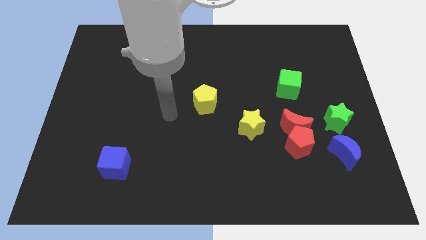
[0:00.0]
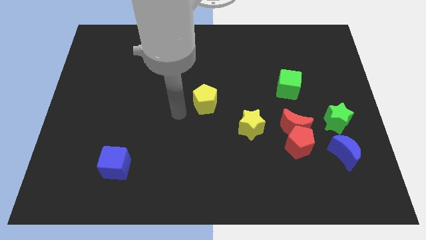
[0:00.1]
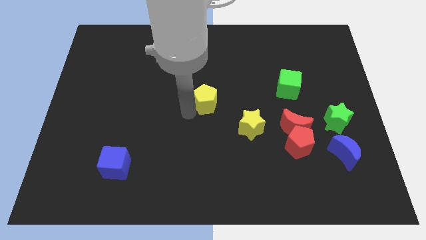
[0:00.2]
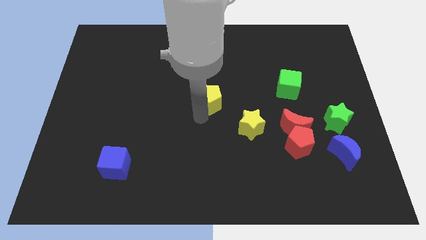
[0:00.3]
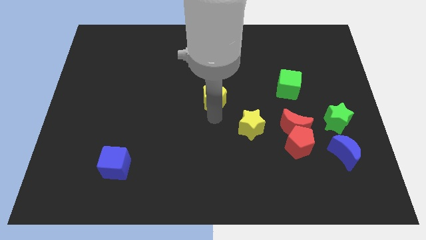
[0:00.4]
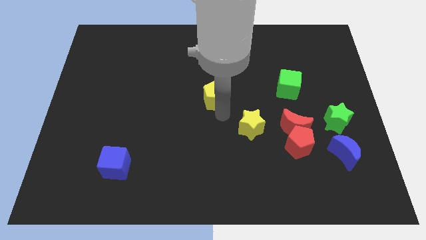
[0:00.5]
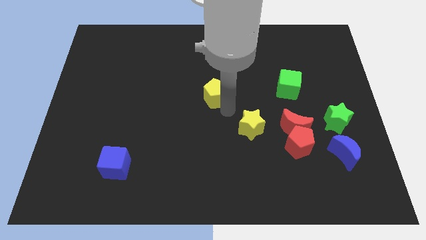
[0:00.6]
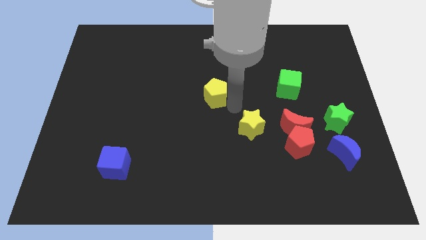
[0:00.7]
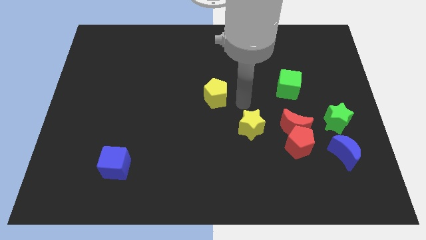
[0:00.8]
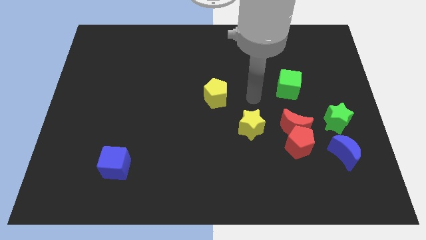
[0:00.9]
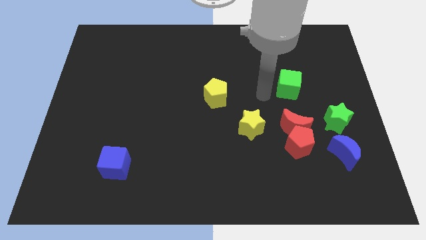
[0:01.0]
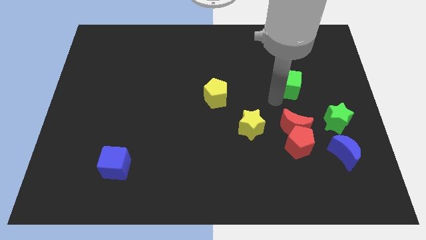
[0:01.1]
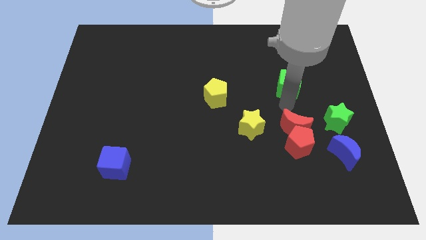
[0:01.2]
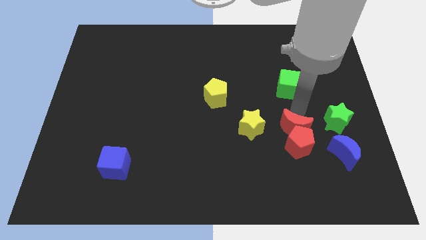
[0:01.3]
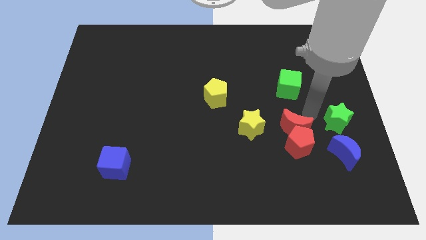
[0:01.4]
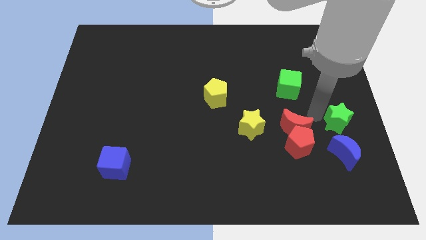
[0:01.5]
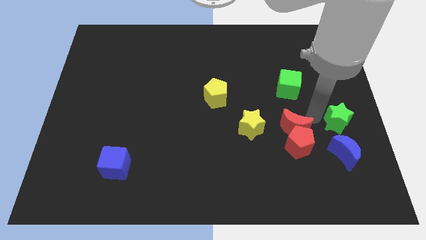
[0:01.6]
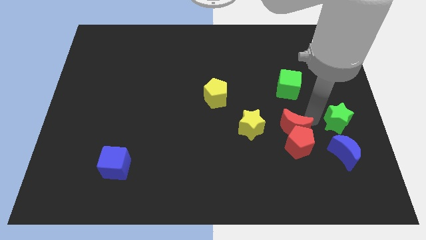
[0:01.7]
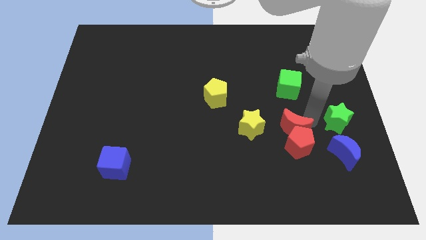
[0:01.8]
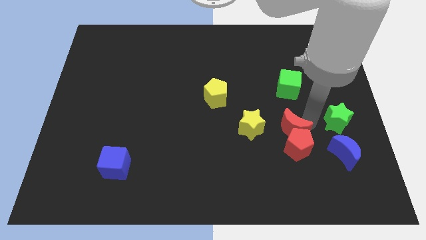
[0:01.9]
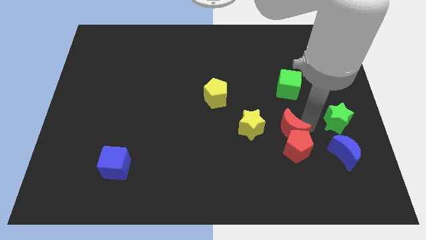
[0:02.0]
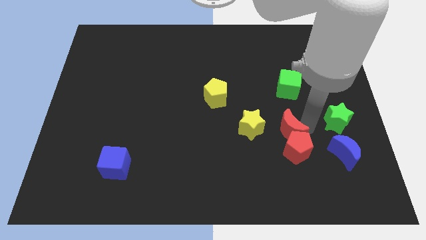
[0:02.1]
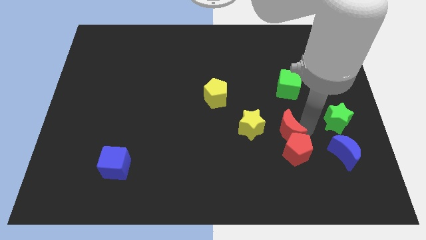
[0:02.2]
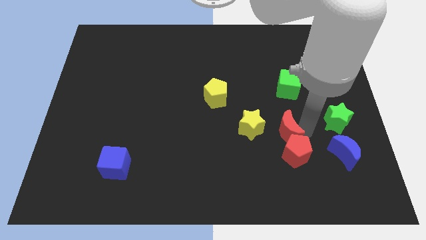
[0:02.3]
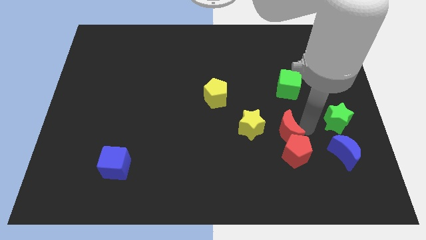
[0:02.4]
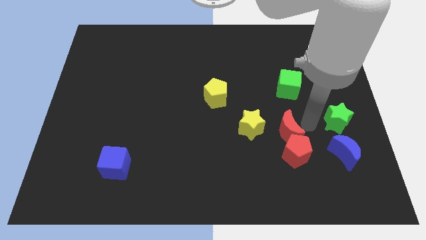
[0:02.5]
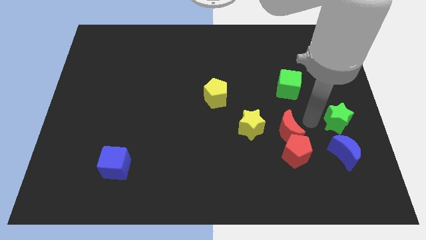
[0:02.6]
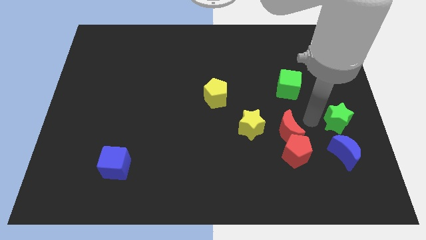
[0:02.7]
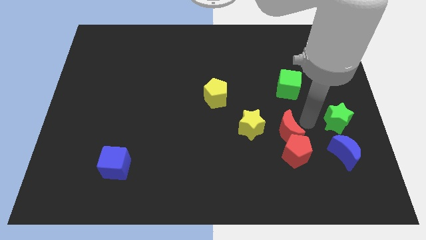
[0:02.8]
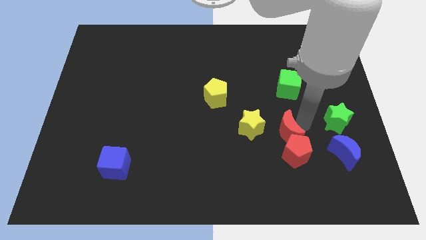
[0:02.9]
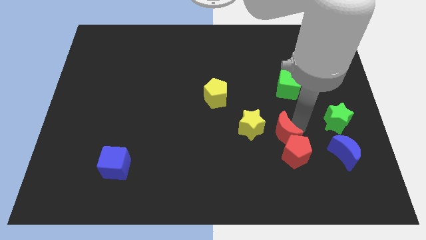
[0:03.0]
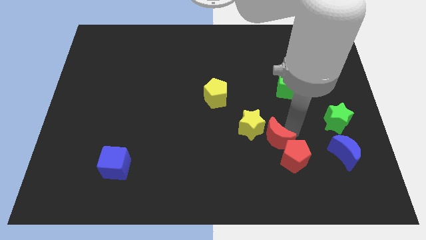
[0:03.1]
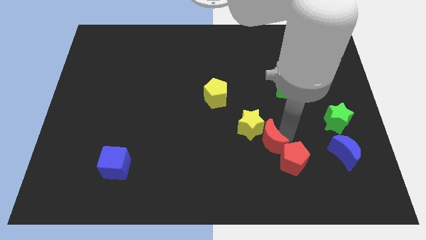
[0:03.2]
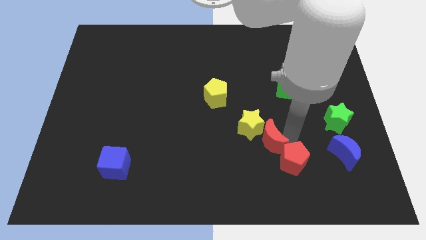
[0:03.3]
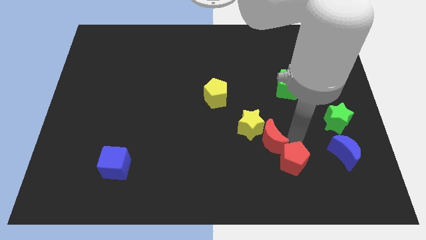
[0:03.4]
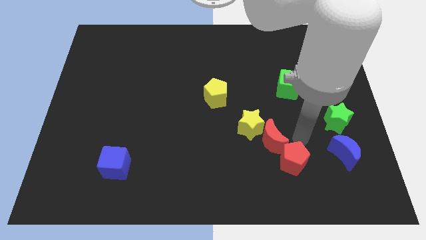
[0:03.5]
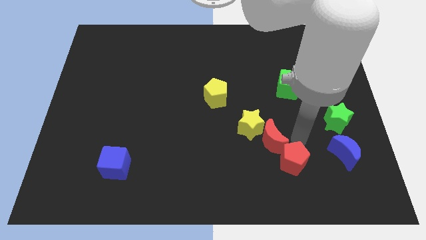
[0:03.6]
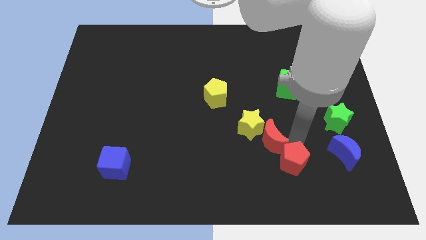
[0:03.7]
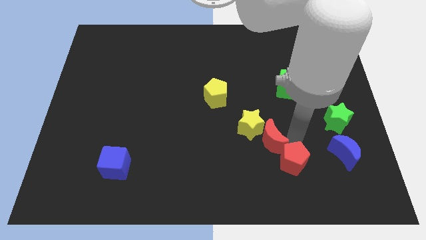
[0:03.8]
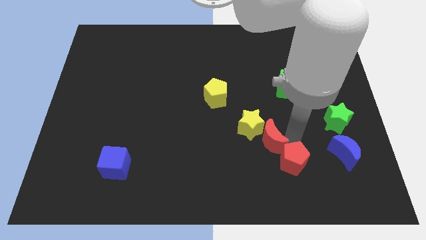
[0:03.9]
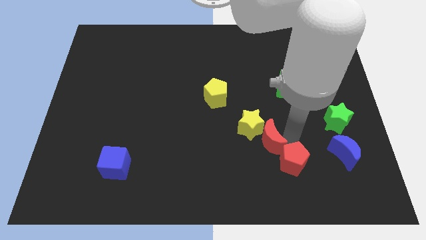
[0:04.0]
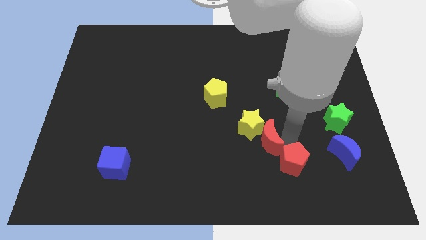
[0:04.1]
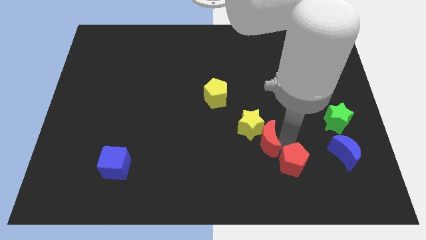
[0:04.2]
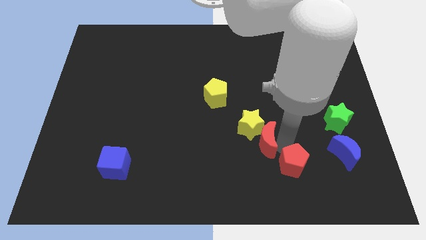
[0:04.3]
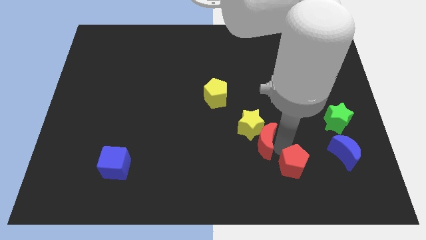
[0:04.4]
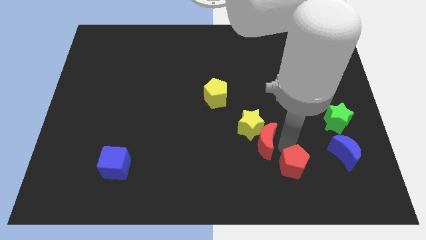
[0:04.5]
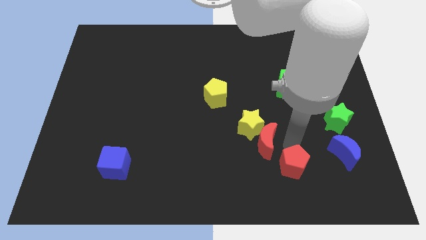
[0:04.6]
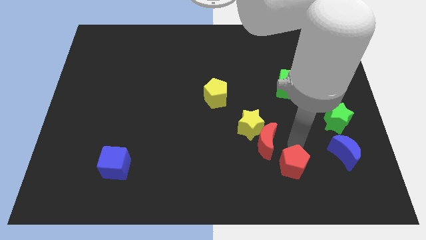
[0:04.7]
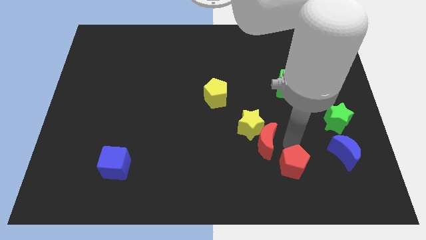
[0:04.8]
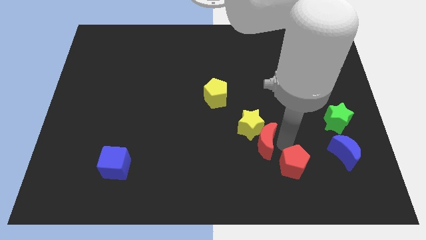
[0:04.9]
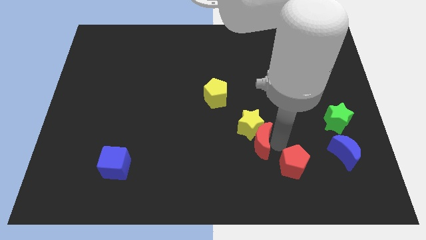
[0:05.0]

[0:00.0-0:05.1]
slightly move the red moon to the left

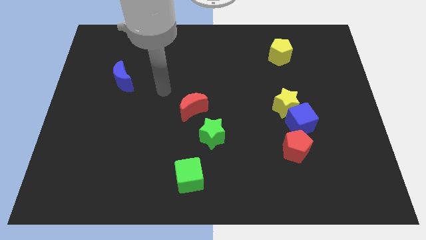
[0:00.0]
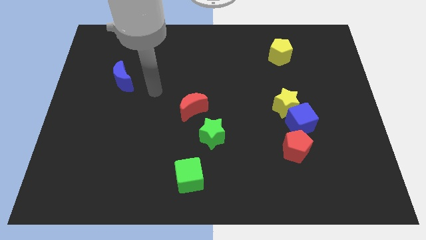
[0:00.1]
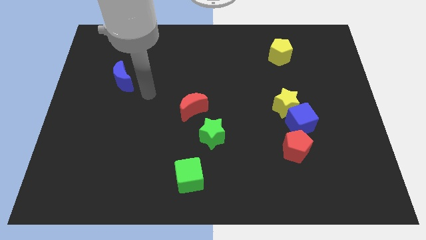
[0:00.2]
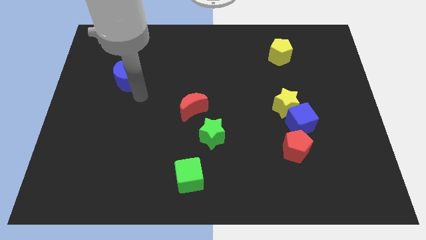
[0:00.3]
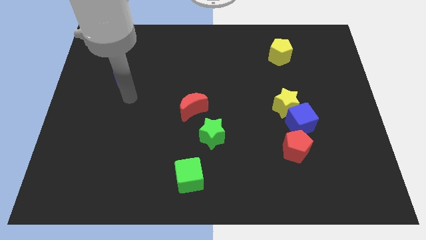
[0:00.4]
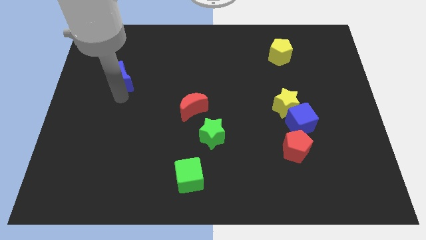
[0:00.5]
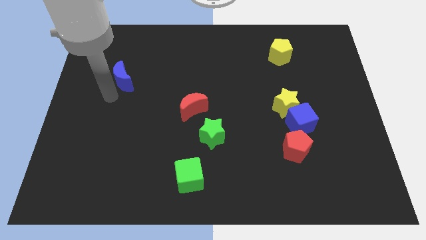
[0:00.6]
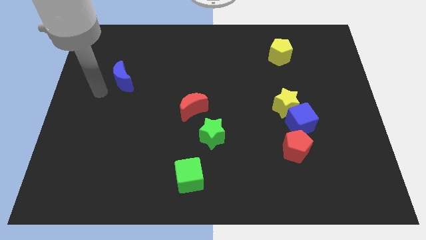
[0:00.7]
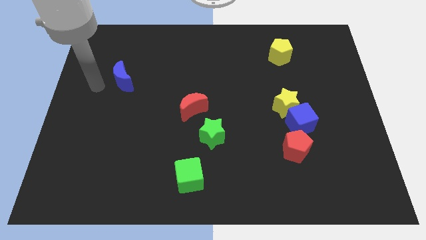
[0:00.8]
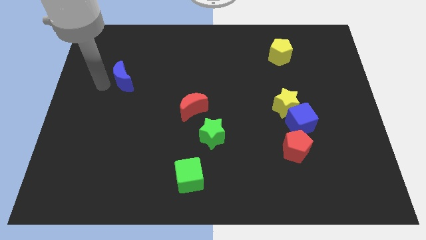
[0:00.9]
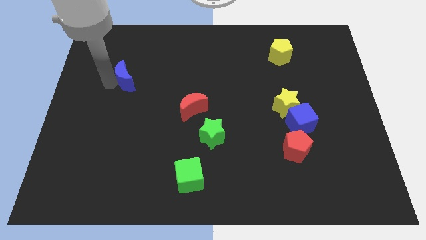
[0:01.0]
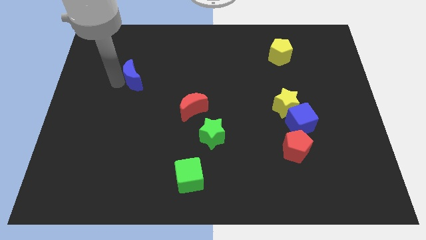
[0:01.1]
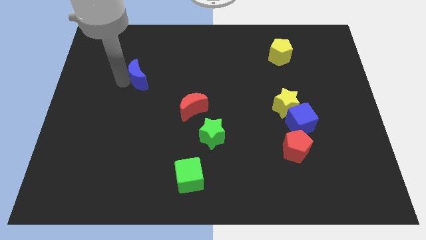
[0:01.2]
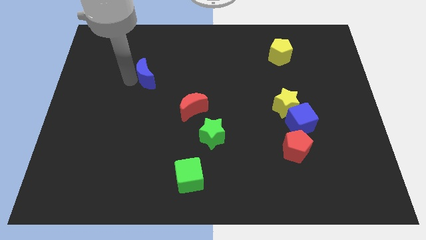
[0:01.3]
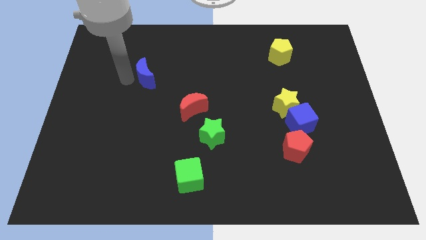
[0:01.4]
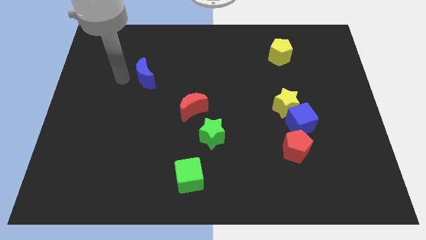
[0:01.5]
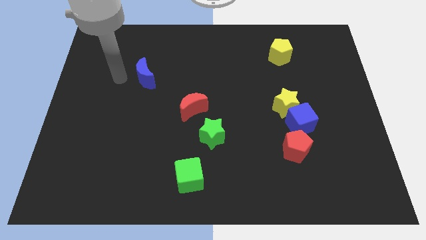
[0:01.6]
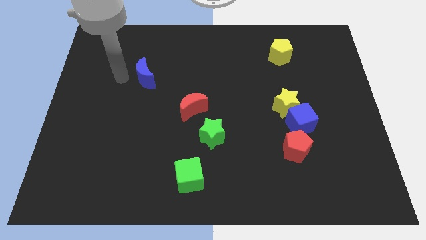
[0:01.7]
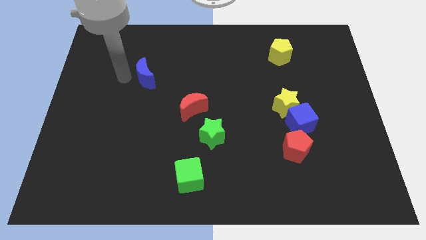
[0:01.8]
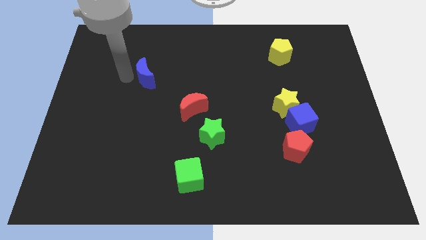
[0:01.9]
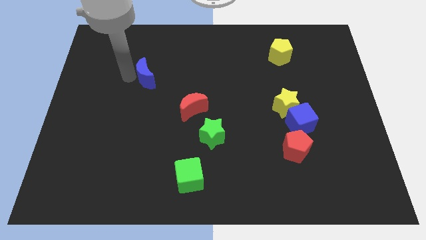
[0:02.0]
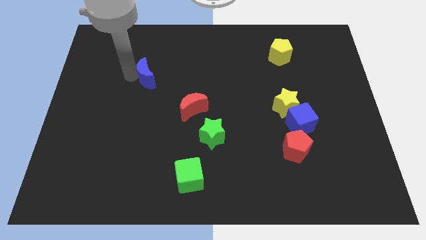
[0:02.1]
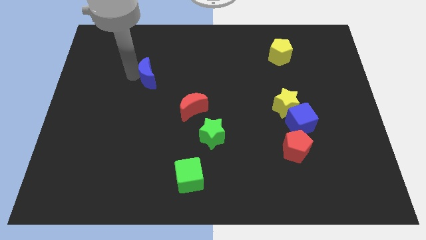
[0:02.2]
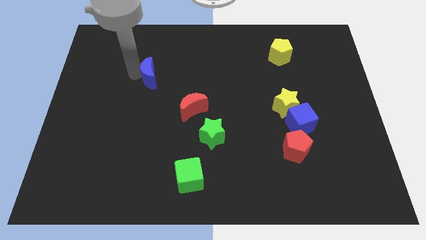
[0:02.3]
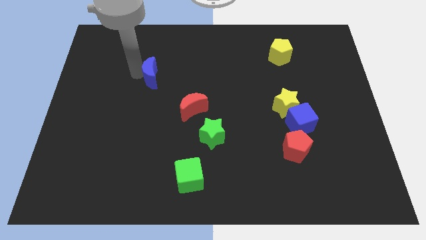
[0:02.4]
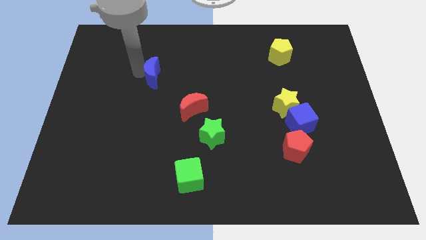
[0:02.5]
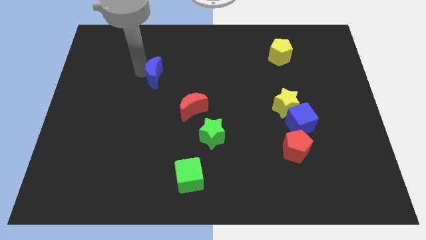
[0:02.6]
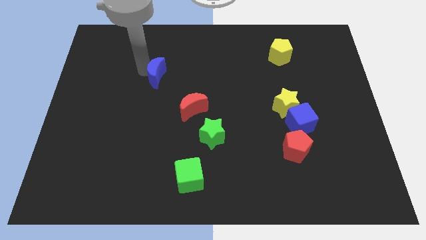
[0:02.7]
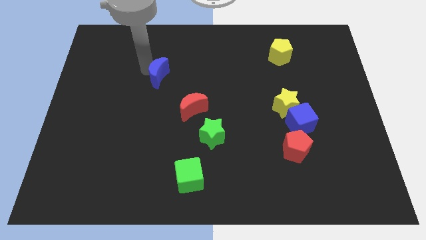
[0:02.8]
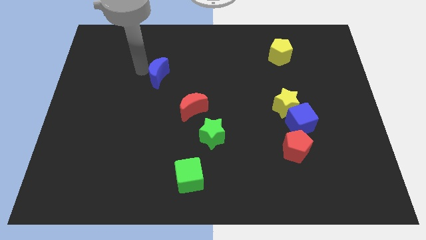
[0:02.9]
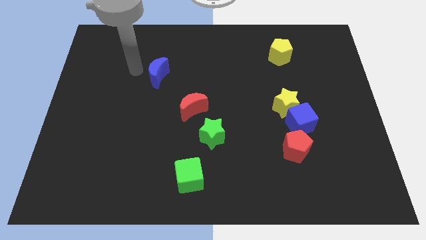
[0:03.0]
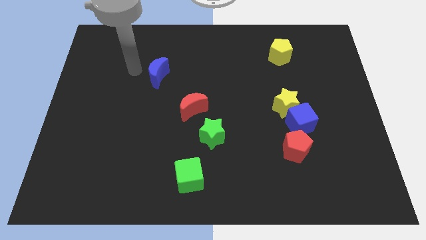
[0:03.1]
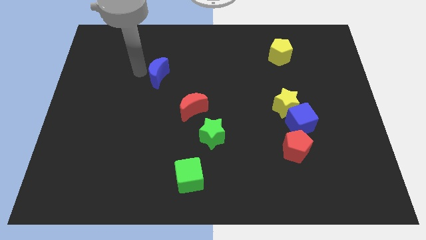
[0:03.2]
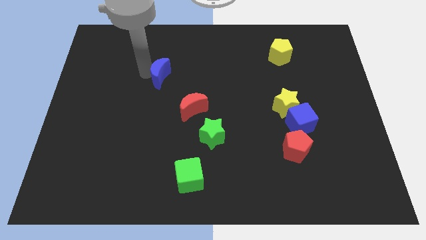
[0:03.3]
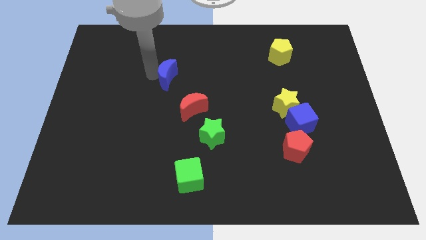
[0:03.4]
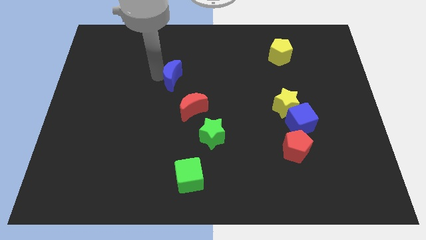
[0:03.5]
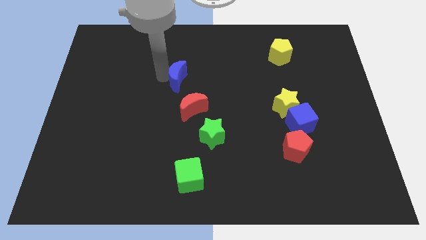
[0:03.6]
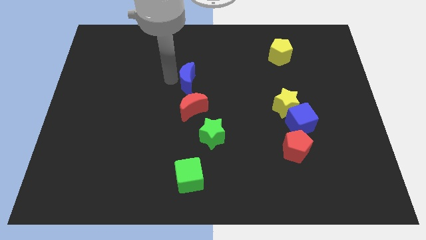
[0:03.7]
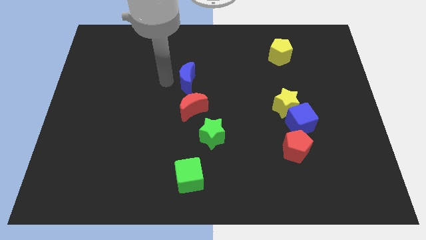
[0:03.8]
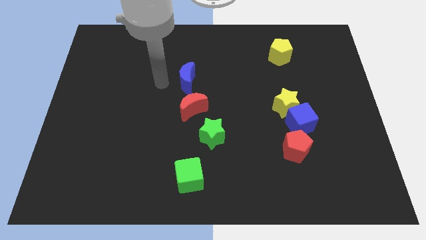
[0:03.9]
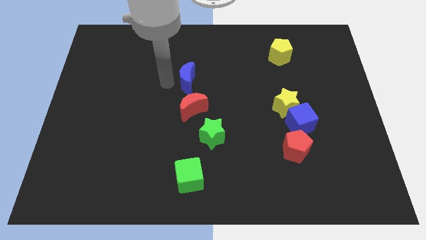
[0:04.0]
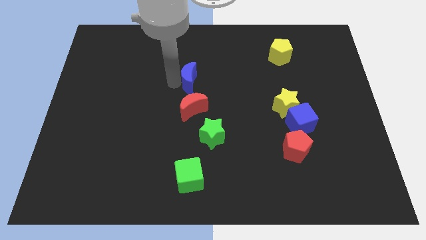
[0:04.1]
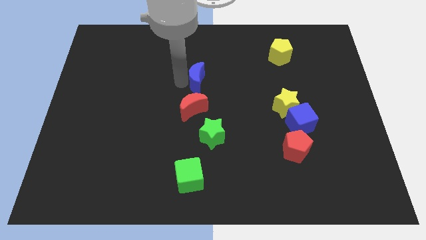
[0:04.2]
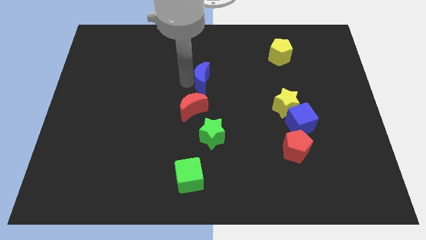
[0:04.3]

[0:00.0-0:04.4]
move the blue moon right
